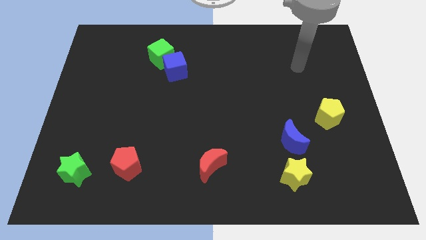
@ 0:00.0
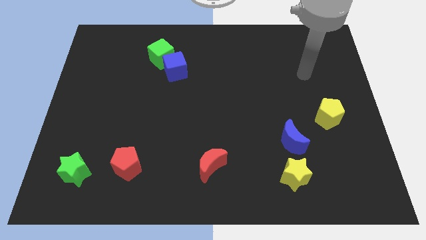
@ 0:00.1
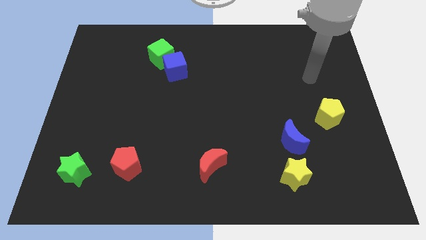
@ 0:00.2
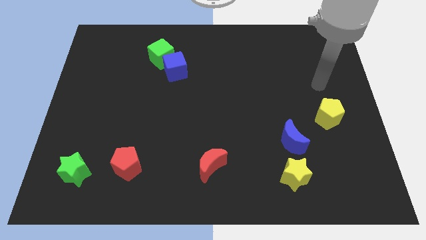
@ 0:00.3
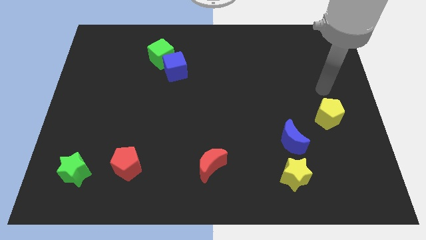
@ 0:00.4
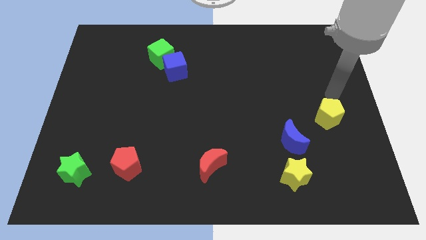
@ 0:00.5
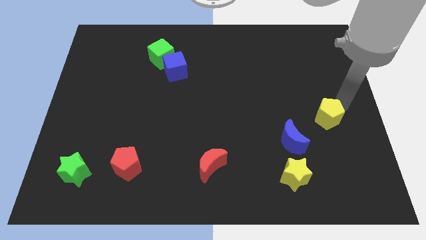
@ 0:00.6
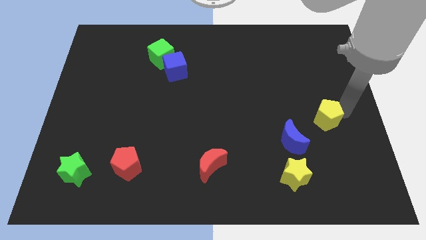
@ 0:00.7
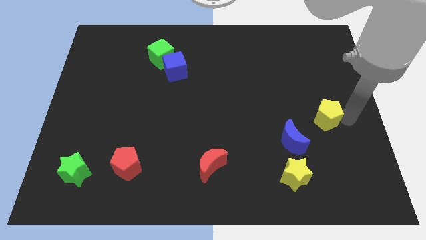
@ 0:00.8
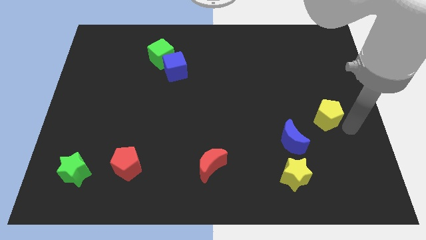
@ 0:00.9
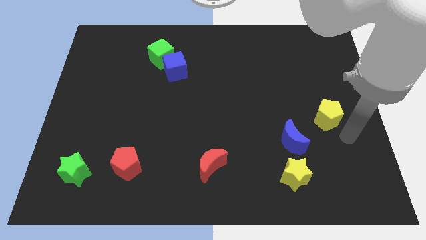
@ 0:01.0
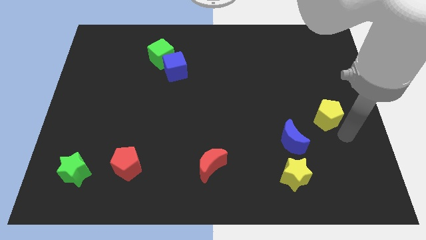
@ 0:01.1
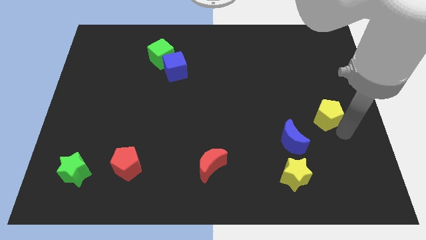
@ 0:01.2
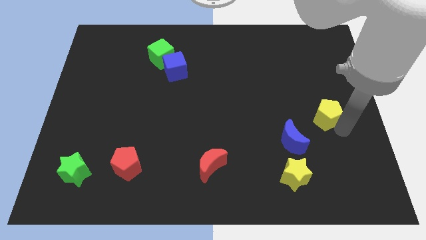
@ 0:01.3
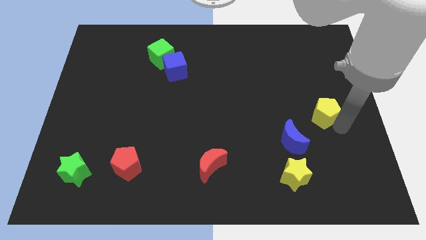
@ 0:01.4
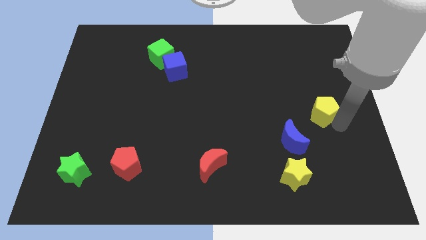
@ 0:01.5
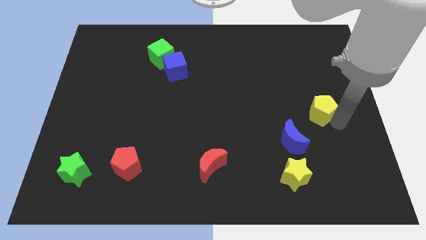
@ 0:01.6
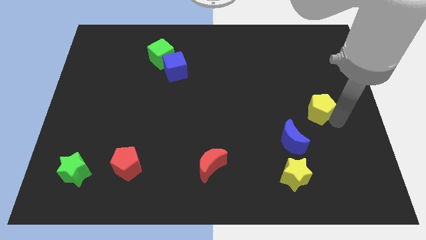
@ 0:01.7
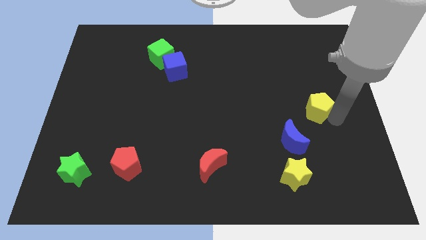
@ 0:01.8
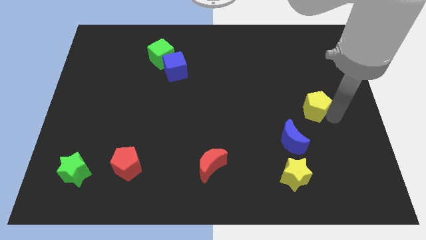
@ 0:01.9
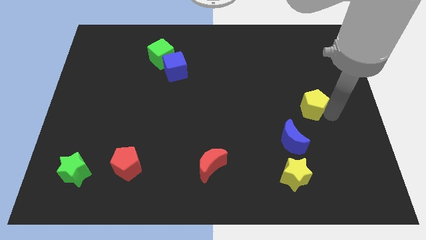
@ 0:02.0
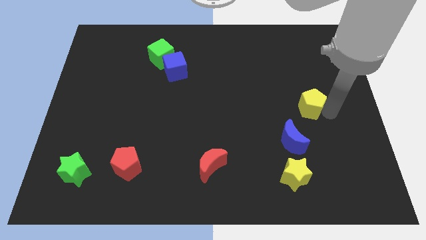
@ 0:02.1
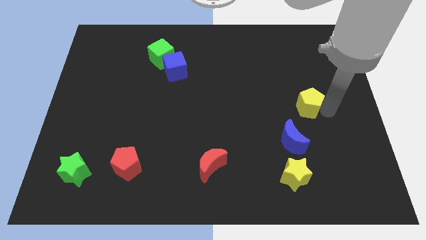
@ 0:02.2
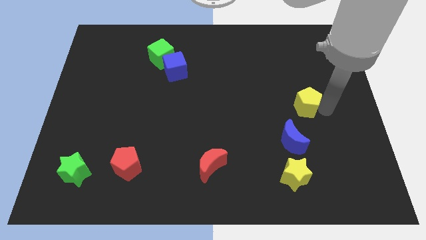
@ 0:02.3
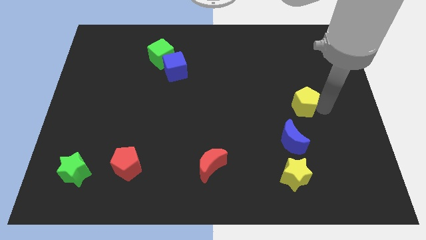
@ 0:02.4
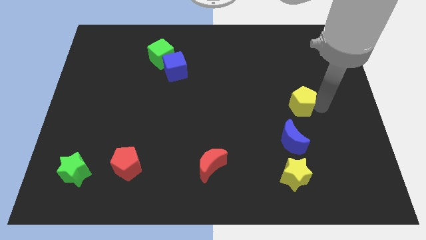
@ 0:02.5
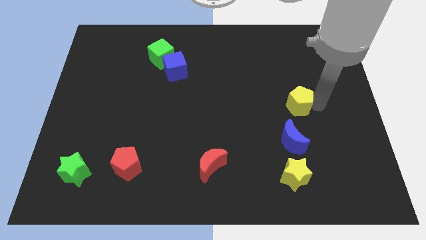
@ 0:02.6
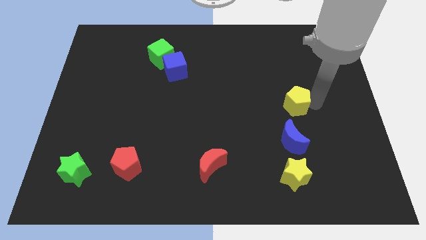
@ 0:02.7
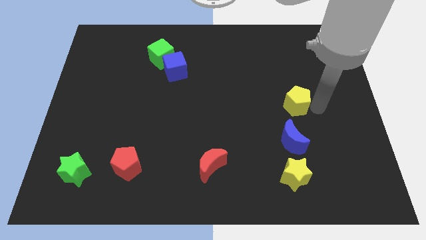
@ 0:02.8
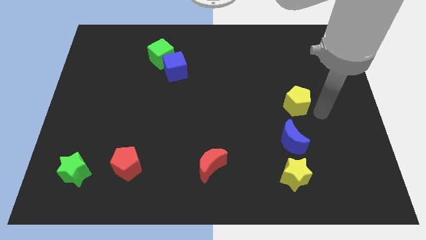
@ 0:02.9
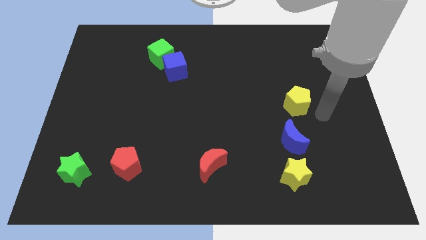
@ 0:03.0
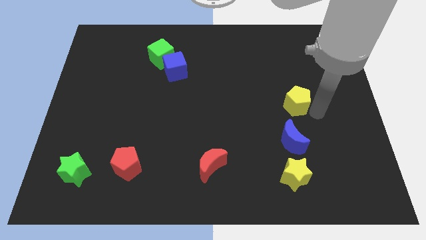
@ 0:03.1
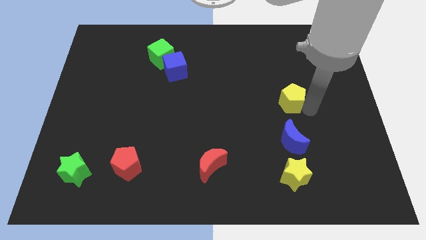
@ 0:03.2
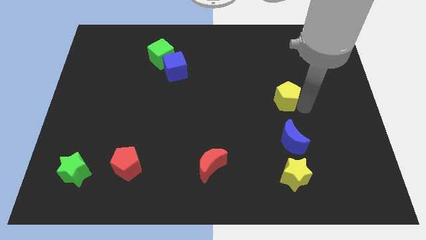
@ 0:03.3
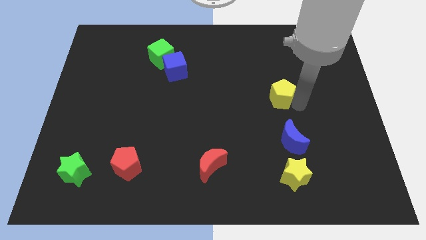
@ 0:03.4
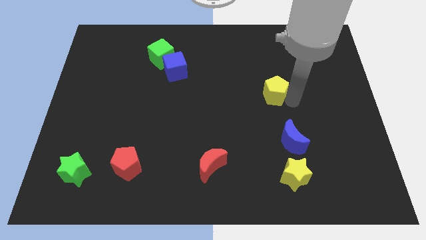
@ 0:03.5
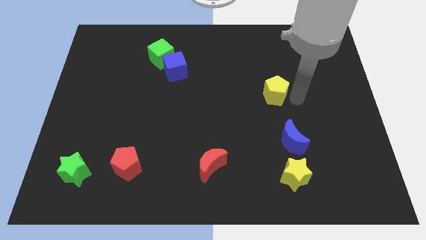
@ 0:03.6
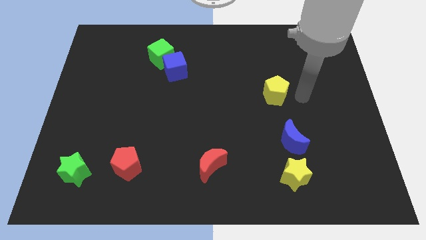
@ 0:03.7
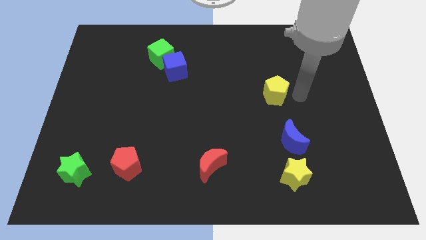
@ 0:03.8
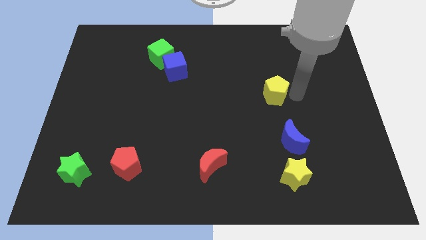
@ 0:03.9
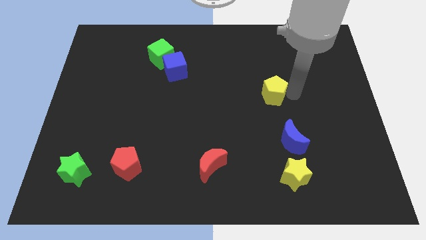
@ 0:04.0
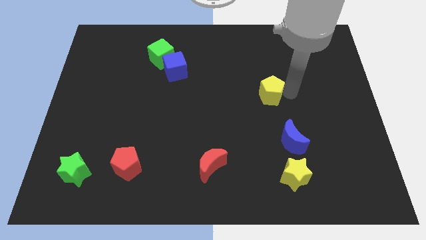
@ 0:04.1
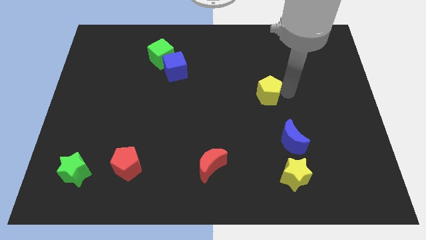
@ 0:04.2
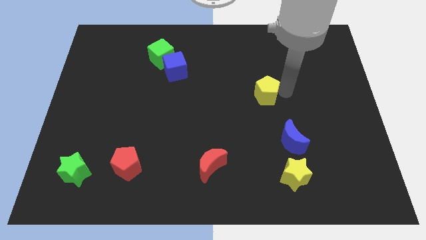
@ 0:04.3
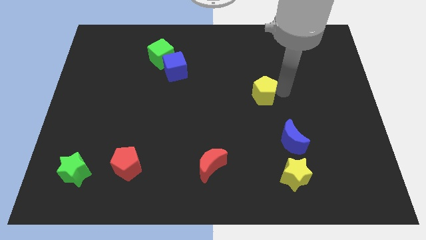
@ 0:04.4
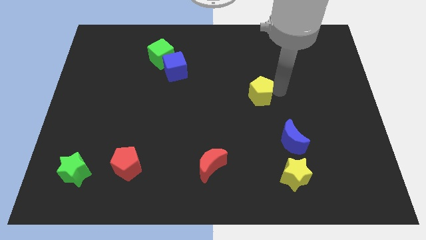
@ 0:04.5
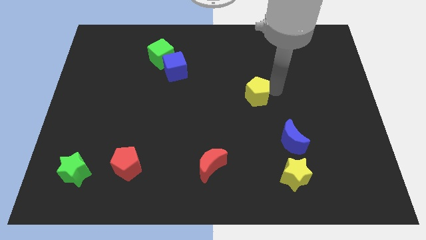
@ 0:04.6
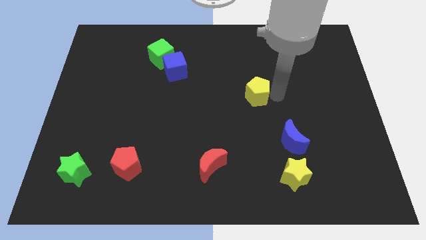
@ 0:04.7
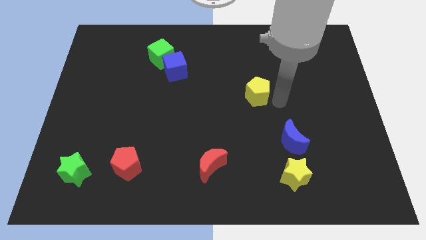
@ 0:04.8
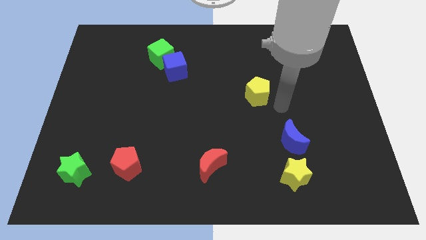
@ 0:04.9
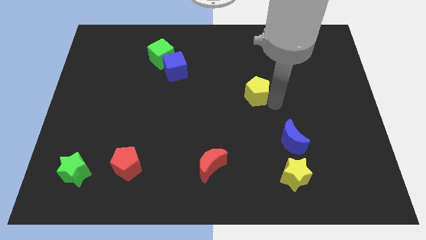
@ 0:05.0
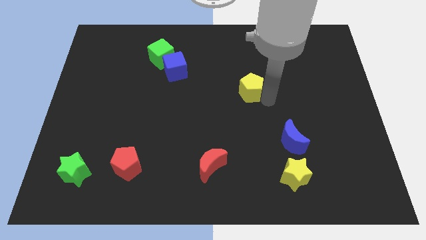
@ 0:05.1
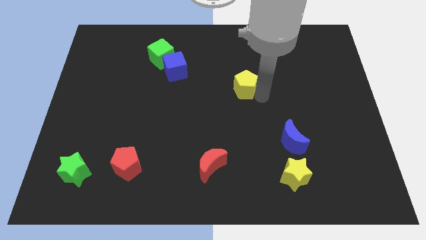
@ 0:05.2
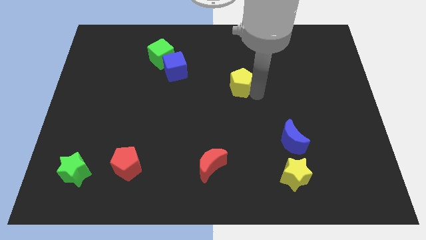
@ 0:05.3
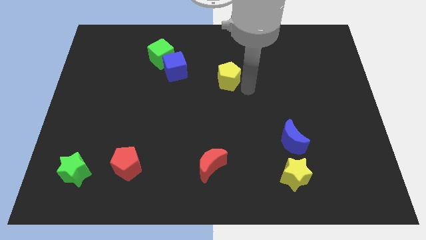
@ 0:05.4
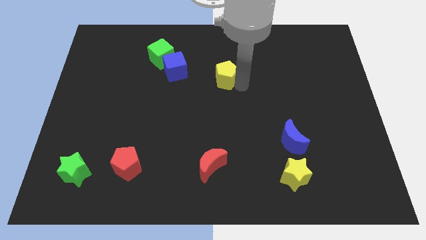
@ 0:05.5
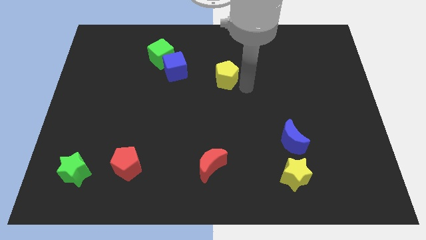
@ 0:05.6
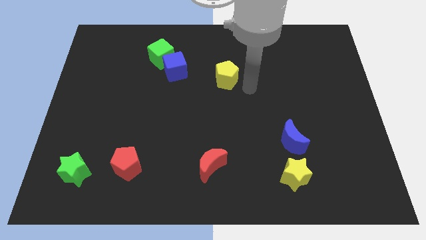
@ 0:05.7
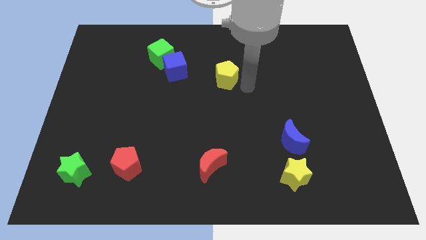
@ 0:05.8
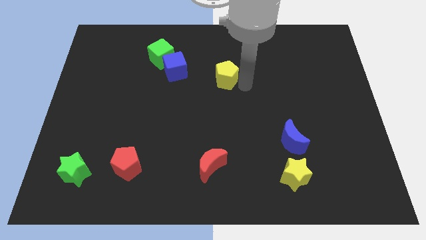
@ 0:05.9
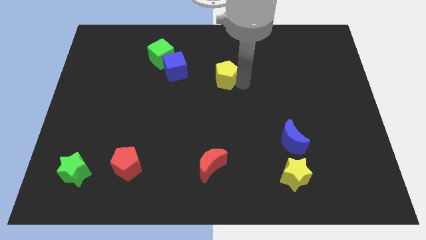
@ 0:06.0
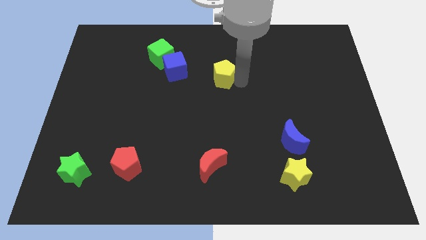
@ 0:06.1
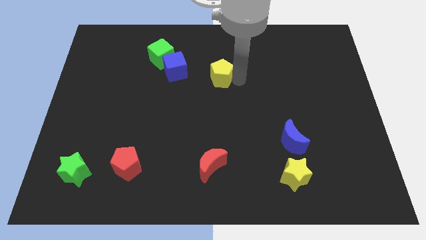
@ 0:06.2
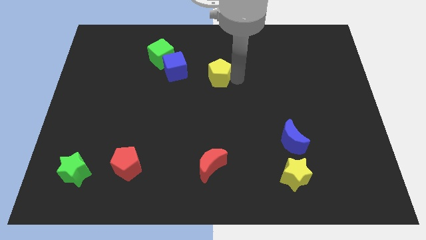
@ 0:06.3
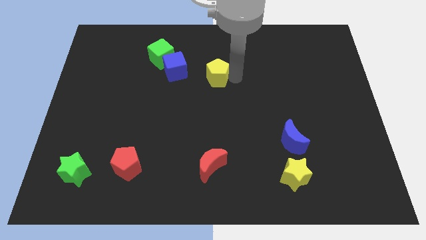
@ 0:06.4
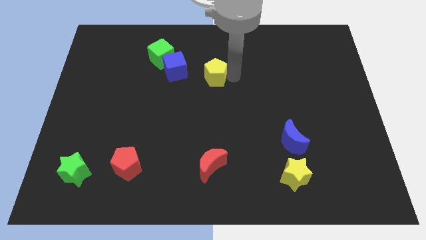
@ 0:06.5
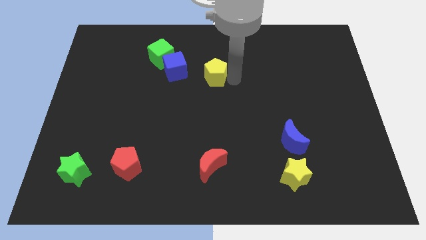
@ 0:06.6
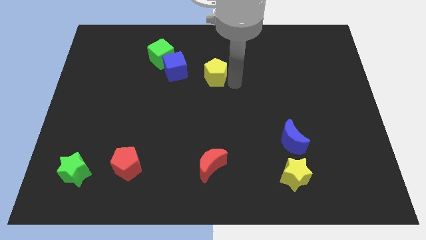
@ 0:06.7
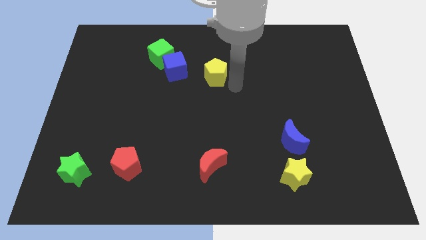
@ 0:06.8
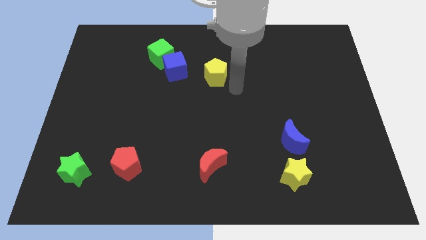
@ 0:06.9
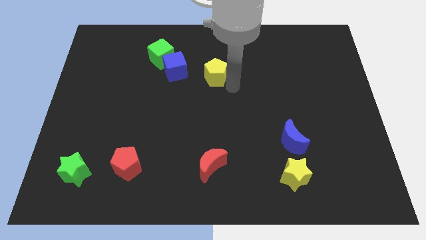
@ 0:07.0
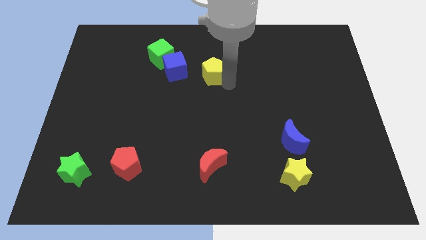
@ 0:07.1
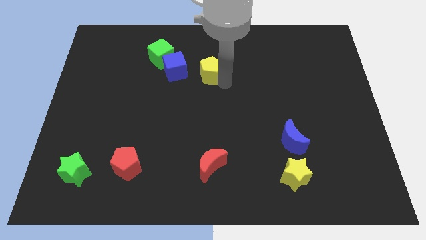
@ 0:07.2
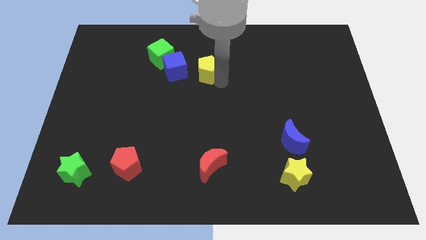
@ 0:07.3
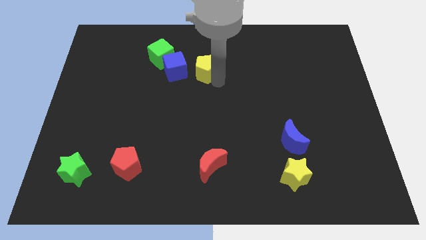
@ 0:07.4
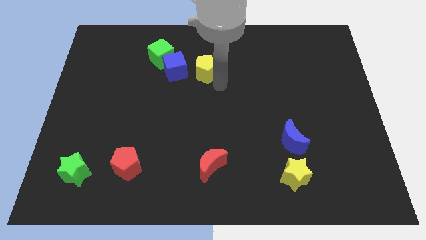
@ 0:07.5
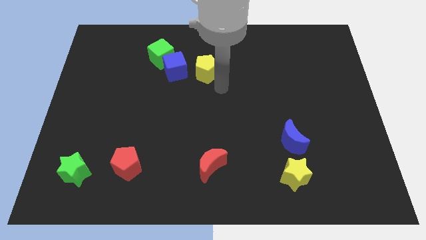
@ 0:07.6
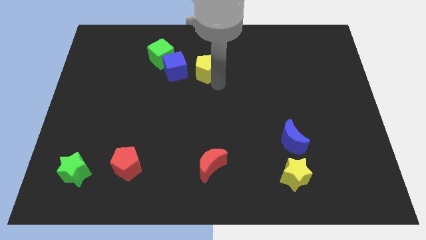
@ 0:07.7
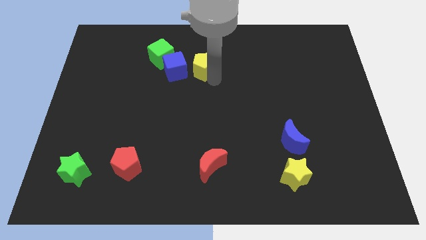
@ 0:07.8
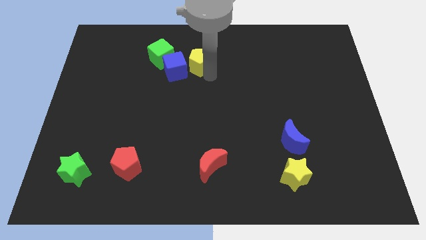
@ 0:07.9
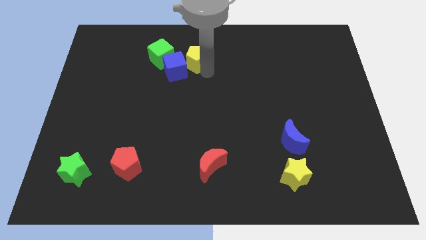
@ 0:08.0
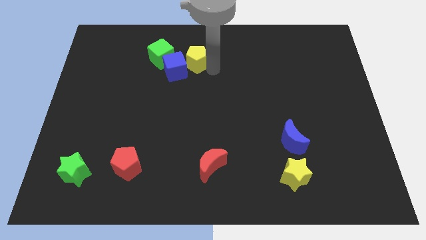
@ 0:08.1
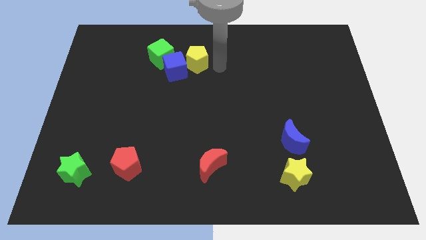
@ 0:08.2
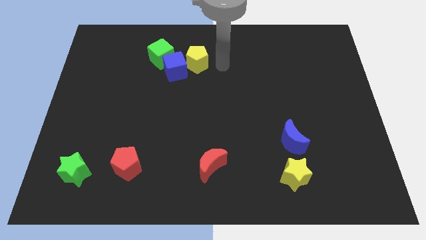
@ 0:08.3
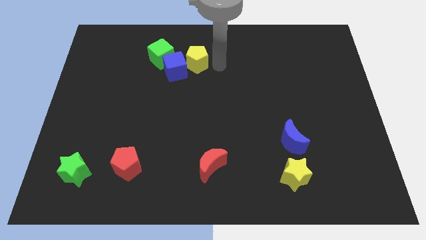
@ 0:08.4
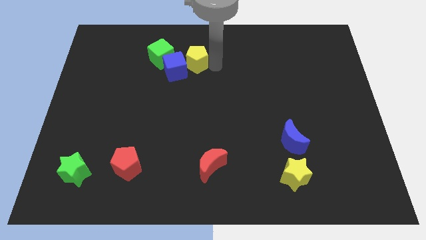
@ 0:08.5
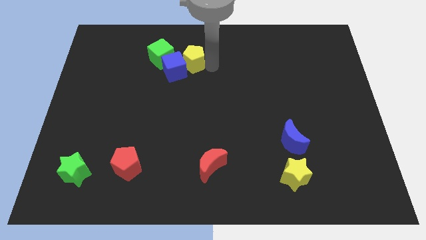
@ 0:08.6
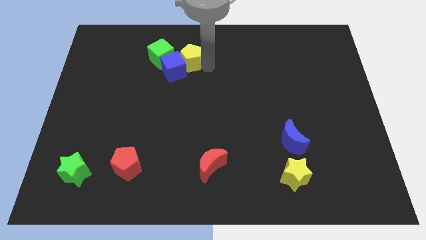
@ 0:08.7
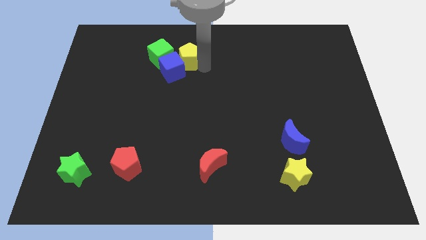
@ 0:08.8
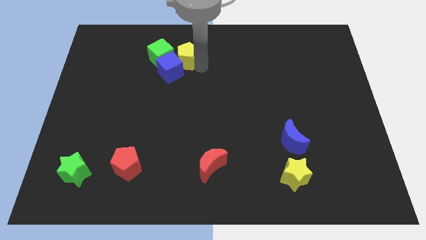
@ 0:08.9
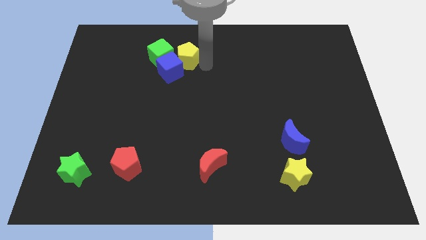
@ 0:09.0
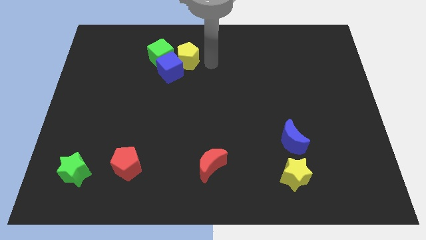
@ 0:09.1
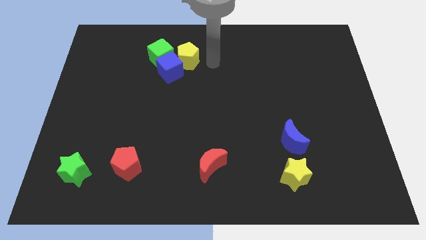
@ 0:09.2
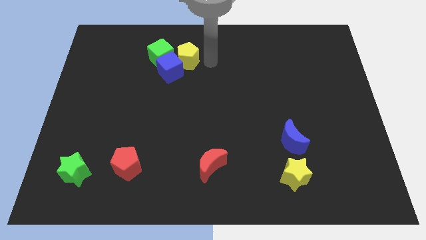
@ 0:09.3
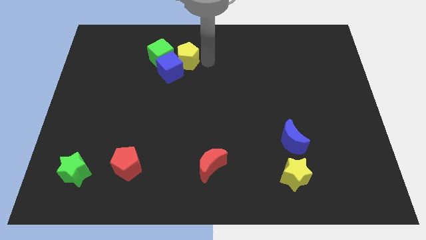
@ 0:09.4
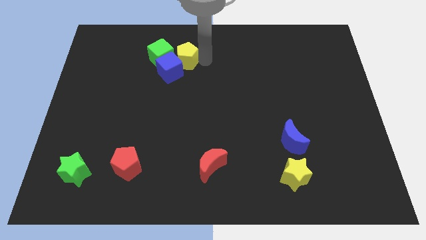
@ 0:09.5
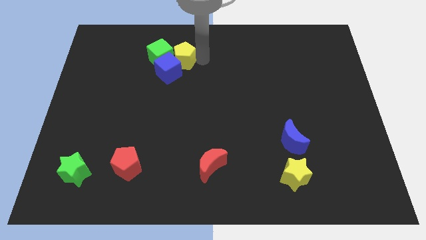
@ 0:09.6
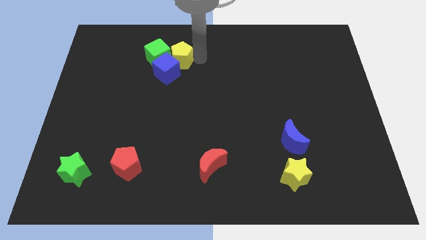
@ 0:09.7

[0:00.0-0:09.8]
move the yellow pentagon towards the green cube
